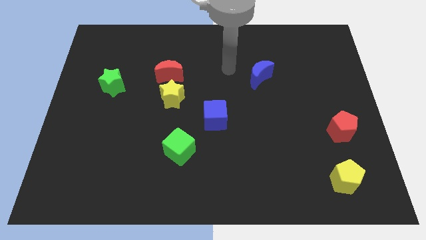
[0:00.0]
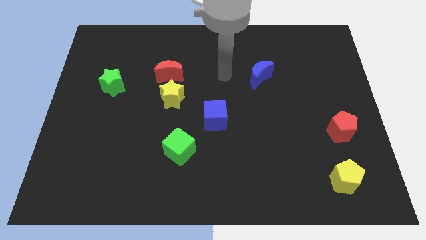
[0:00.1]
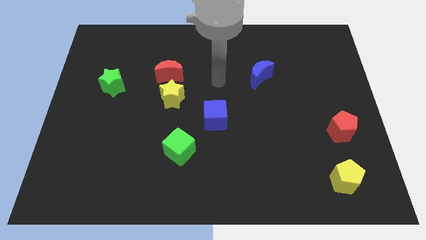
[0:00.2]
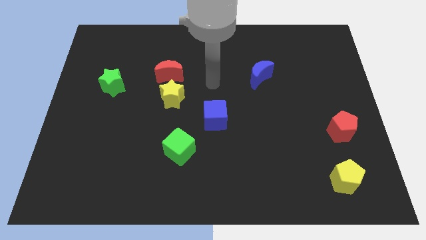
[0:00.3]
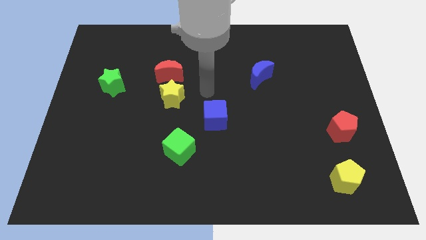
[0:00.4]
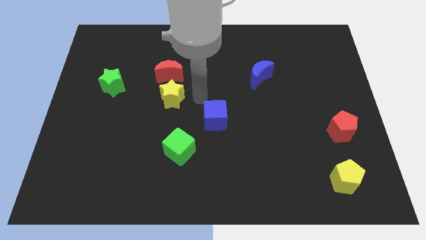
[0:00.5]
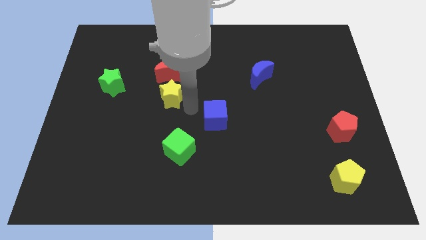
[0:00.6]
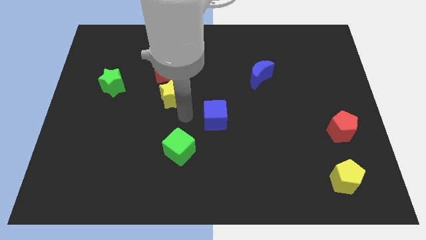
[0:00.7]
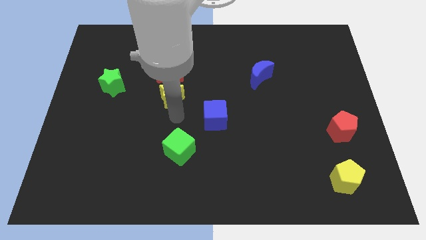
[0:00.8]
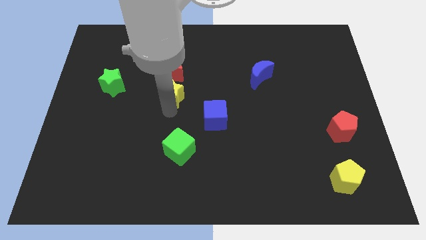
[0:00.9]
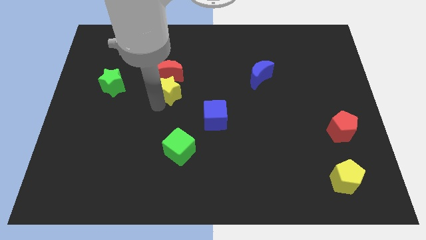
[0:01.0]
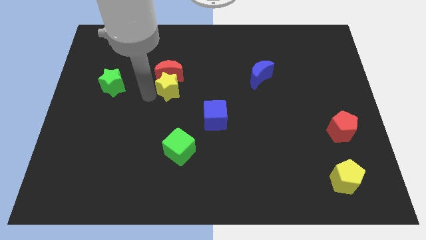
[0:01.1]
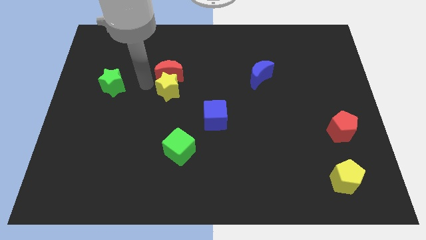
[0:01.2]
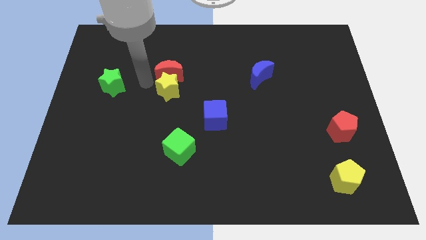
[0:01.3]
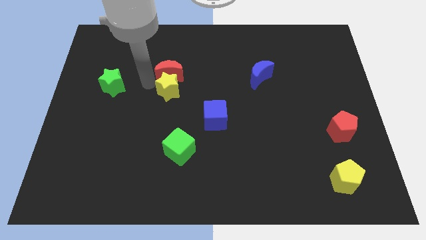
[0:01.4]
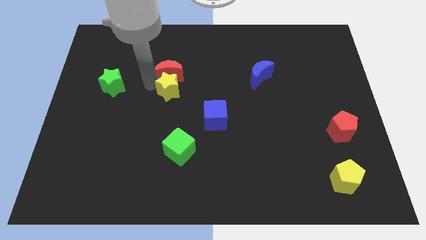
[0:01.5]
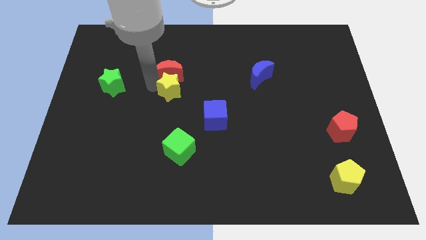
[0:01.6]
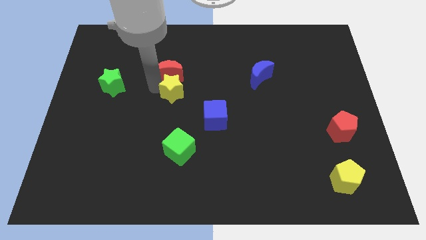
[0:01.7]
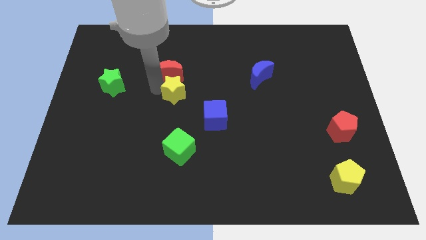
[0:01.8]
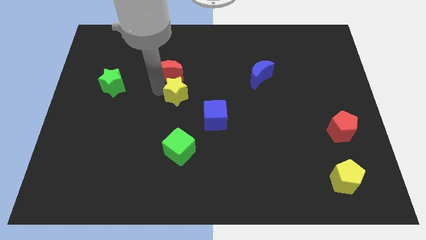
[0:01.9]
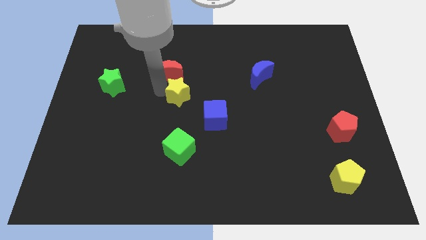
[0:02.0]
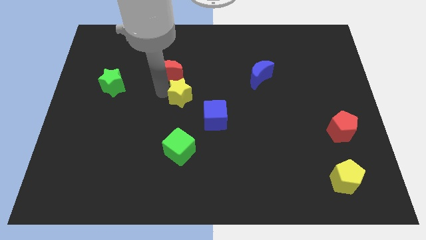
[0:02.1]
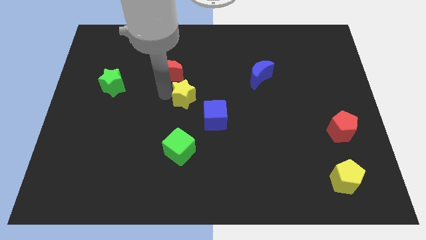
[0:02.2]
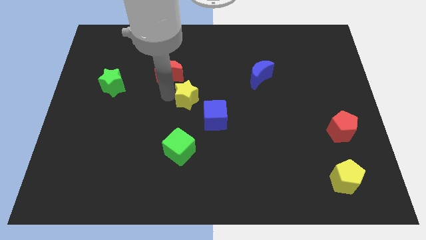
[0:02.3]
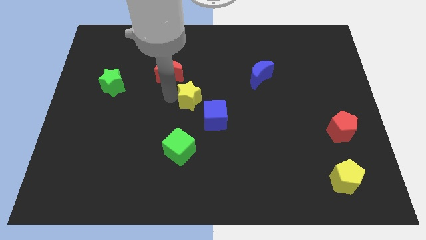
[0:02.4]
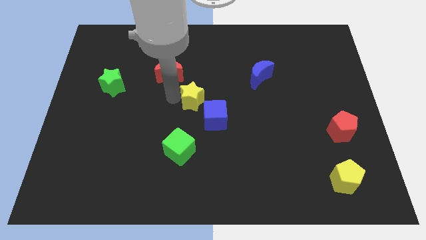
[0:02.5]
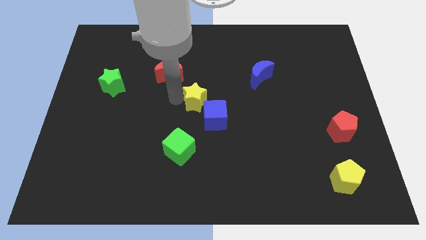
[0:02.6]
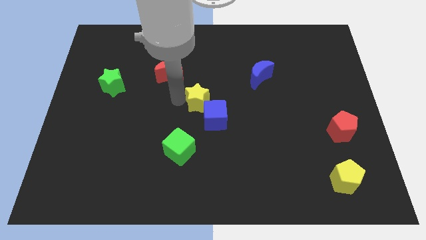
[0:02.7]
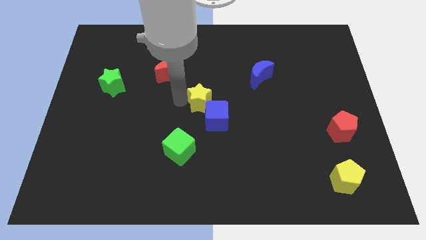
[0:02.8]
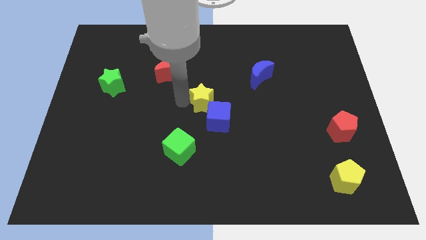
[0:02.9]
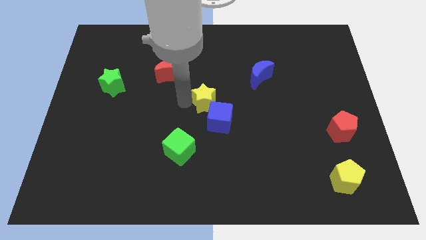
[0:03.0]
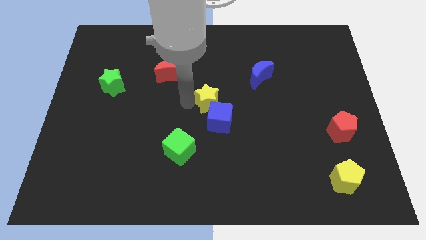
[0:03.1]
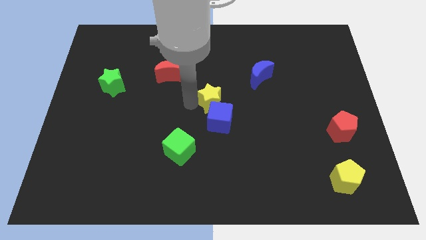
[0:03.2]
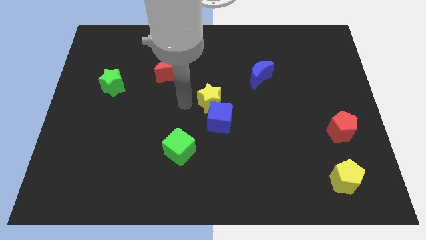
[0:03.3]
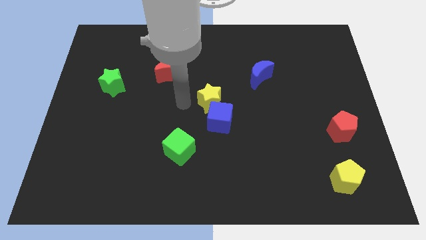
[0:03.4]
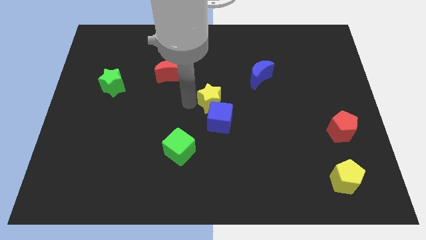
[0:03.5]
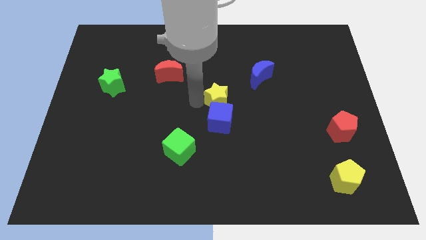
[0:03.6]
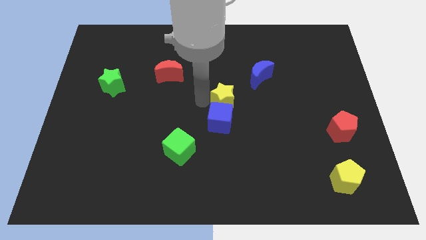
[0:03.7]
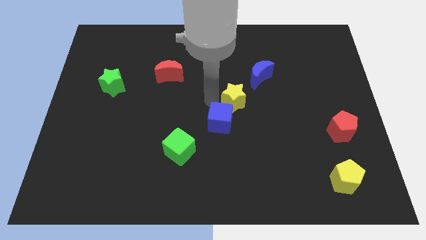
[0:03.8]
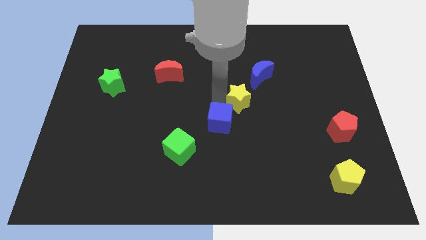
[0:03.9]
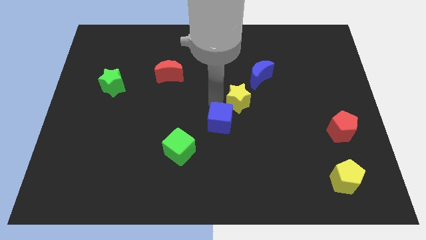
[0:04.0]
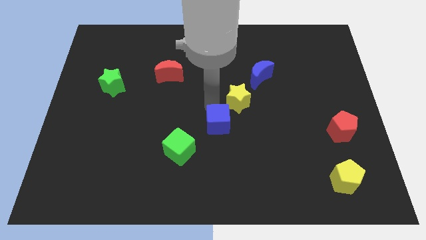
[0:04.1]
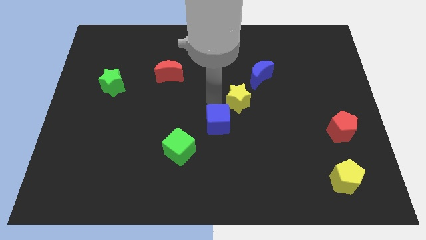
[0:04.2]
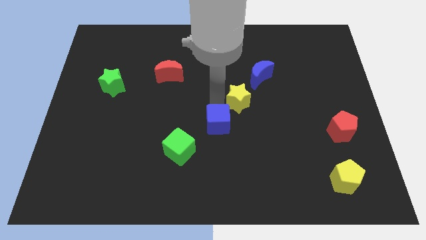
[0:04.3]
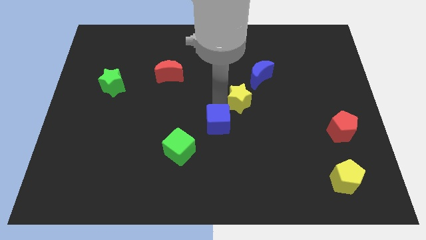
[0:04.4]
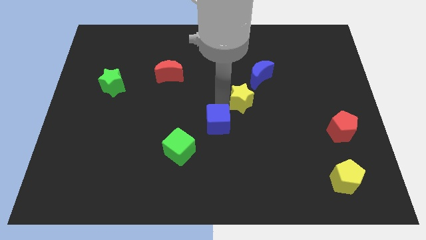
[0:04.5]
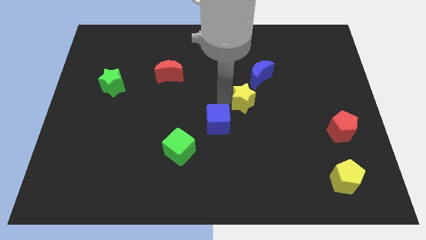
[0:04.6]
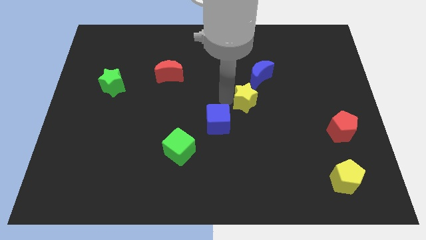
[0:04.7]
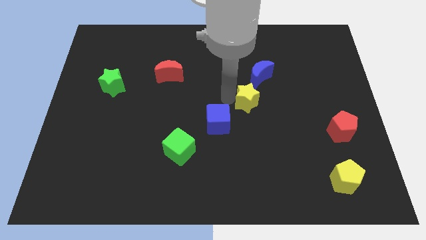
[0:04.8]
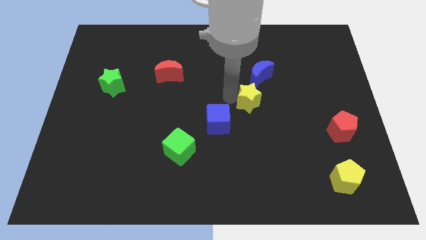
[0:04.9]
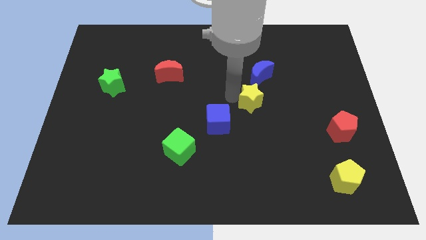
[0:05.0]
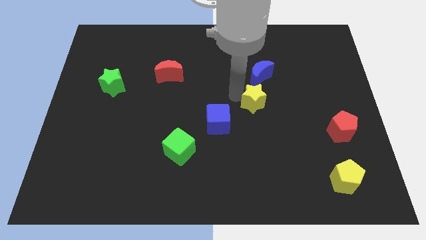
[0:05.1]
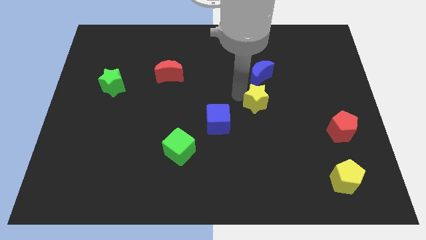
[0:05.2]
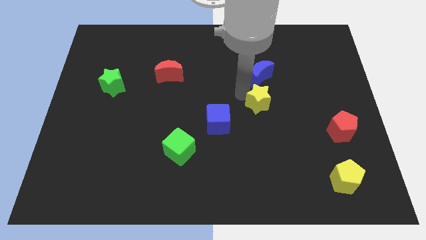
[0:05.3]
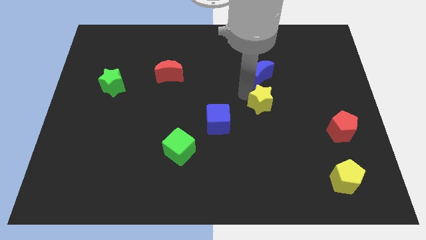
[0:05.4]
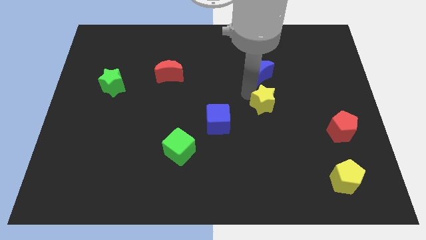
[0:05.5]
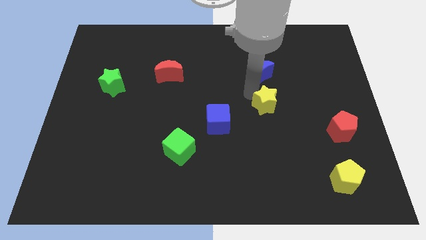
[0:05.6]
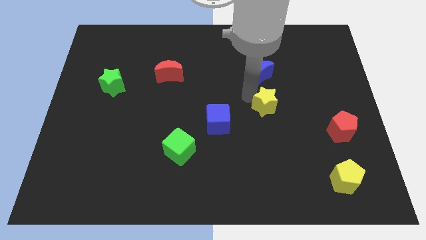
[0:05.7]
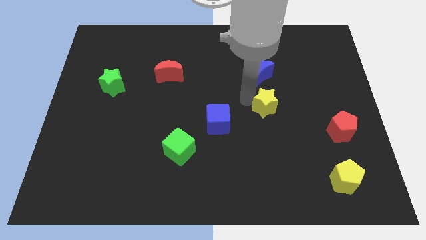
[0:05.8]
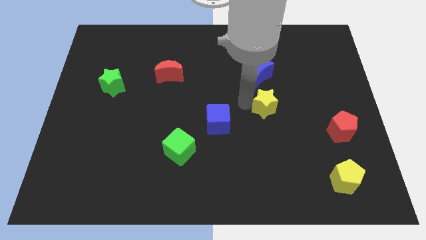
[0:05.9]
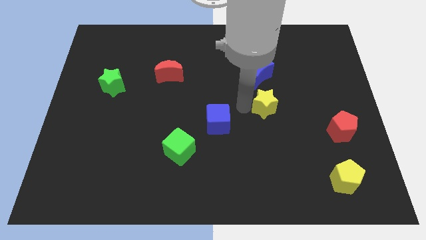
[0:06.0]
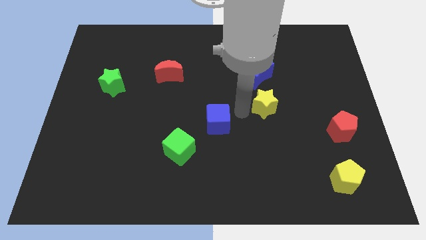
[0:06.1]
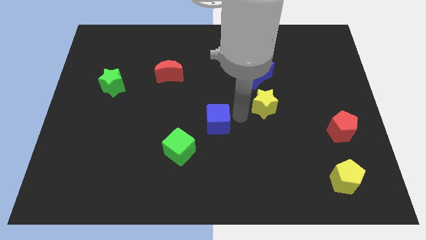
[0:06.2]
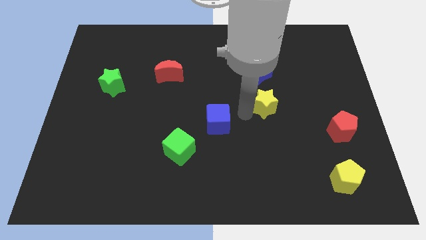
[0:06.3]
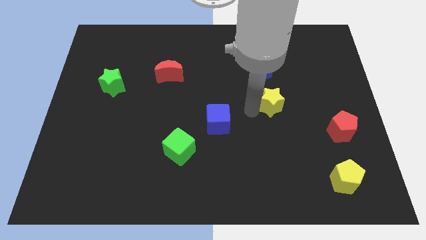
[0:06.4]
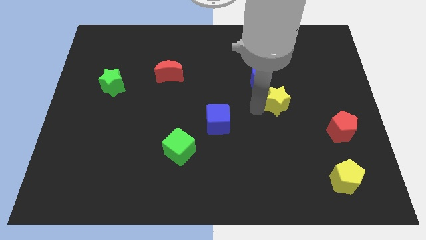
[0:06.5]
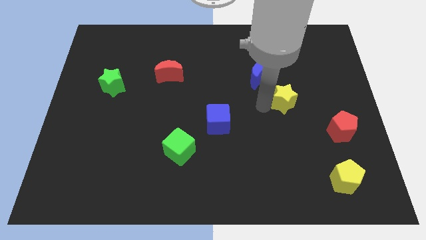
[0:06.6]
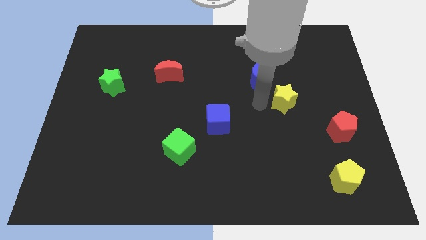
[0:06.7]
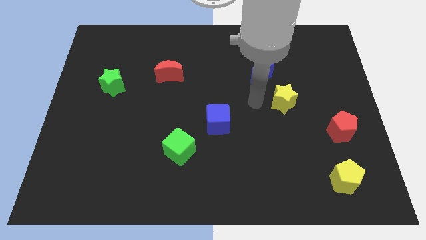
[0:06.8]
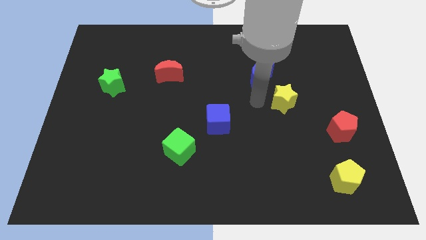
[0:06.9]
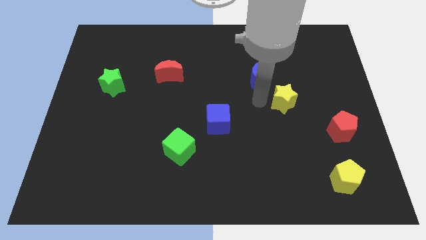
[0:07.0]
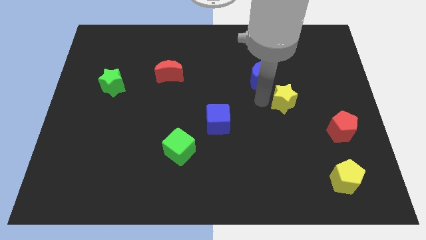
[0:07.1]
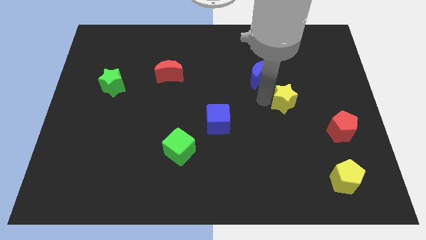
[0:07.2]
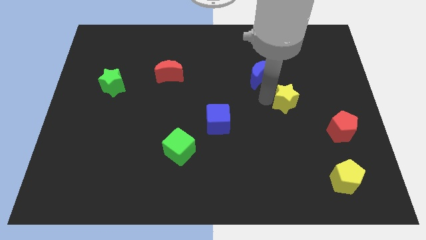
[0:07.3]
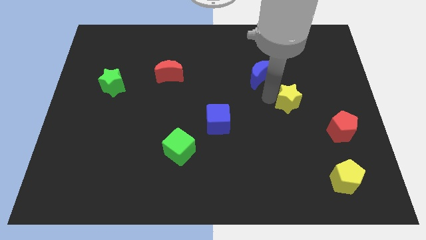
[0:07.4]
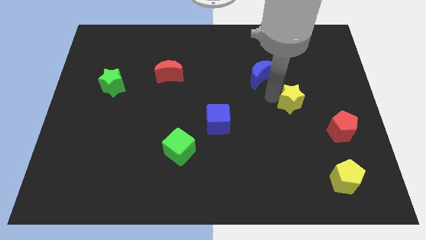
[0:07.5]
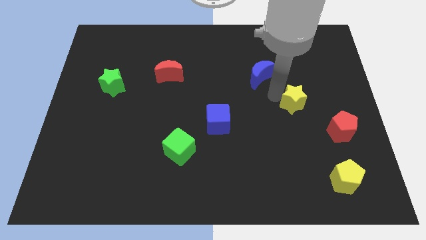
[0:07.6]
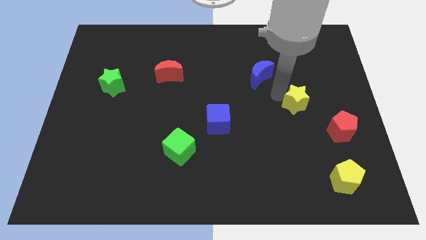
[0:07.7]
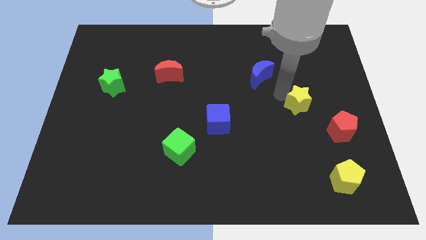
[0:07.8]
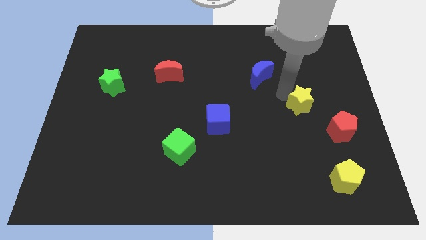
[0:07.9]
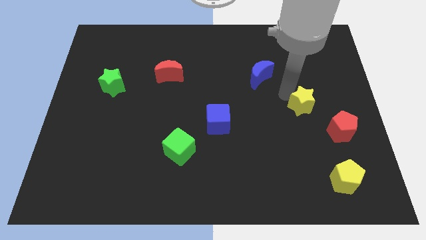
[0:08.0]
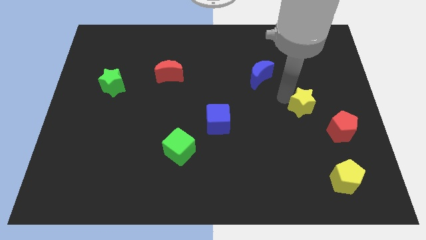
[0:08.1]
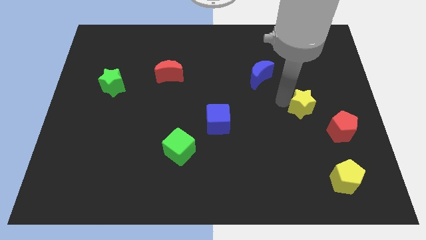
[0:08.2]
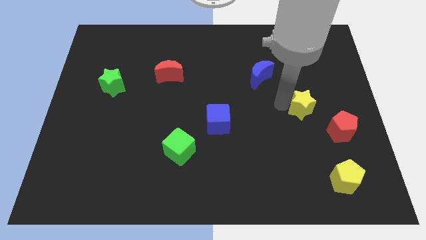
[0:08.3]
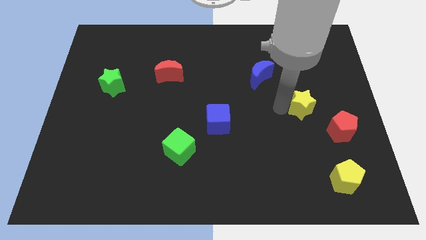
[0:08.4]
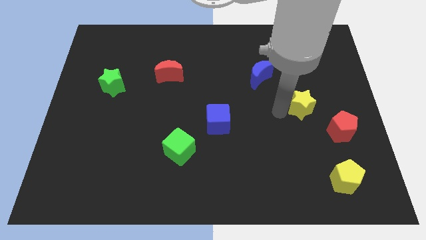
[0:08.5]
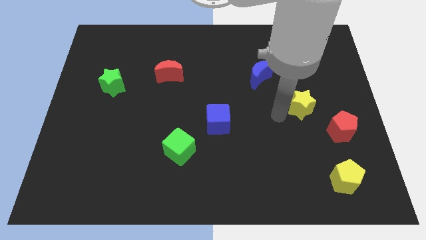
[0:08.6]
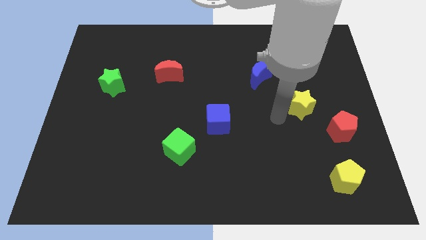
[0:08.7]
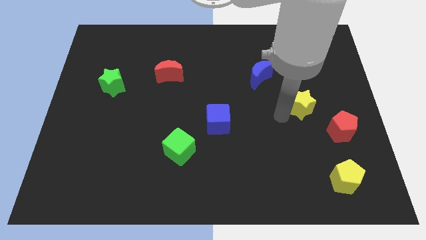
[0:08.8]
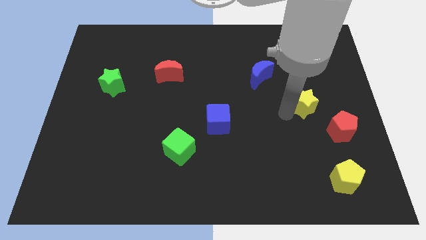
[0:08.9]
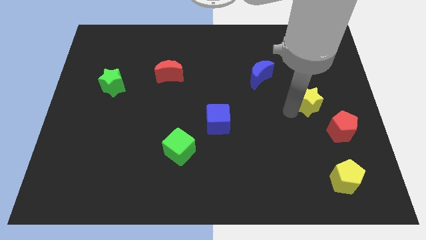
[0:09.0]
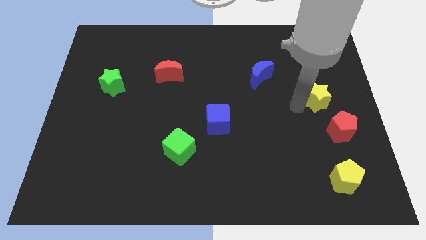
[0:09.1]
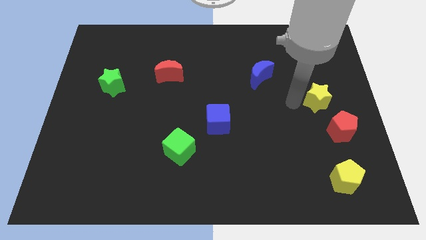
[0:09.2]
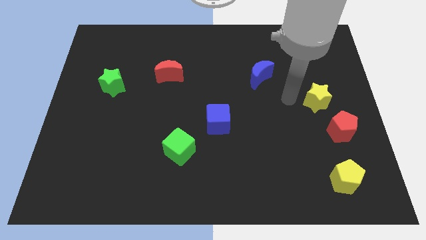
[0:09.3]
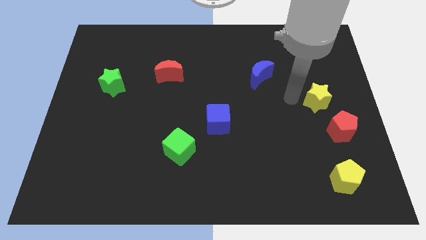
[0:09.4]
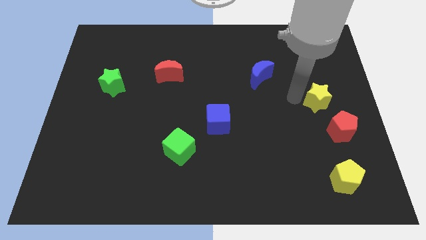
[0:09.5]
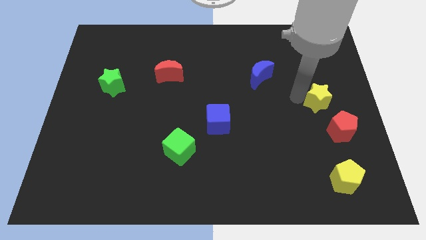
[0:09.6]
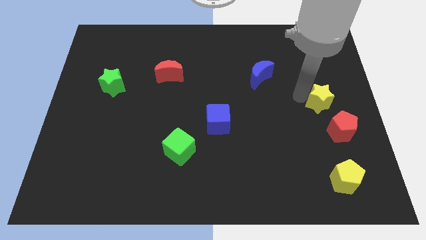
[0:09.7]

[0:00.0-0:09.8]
push the yellow star to the right side
